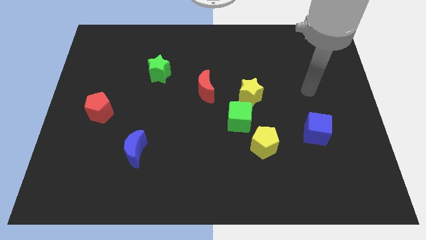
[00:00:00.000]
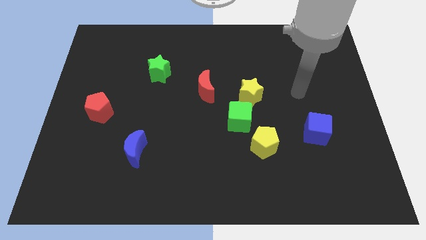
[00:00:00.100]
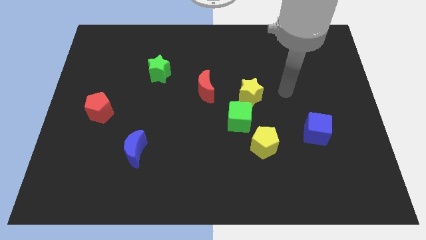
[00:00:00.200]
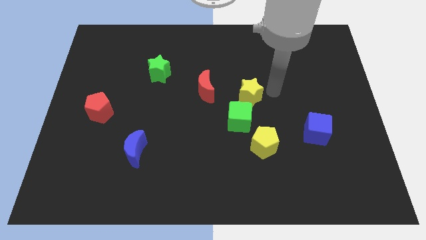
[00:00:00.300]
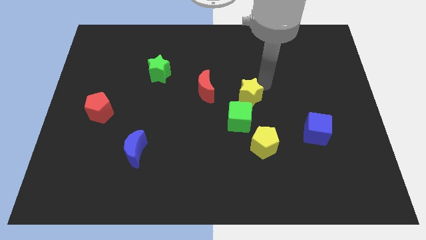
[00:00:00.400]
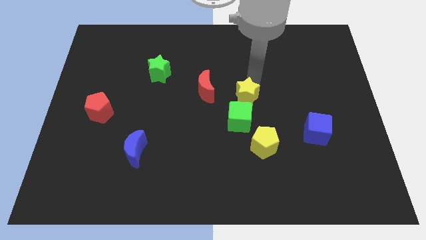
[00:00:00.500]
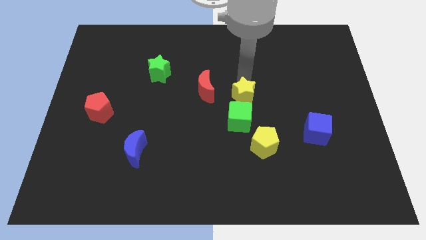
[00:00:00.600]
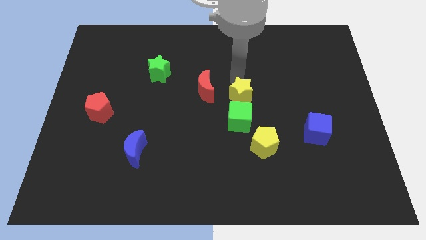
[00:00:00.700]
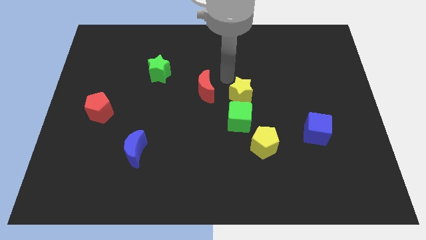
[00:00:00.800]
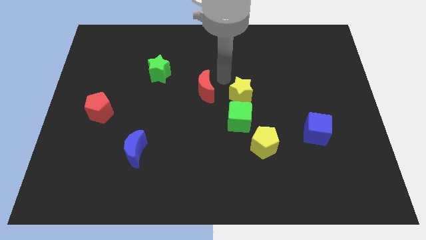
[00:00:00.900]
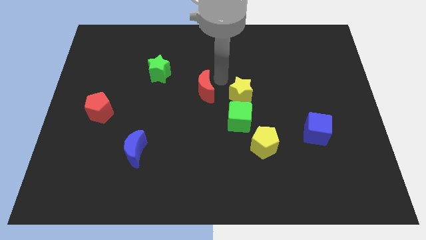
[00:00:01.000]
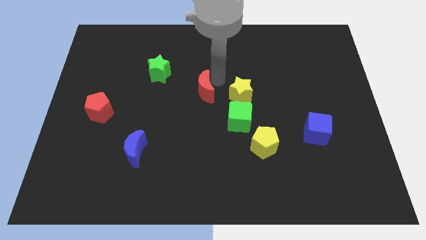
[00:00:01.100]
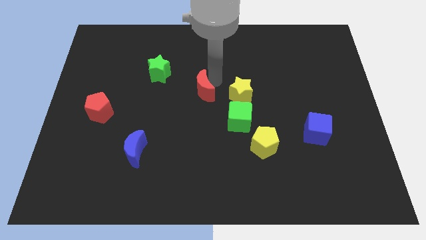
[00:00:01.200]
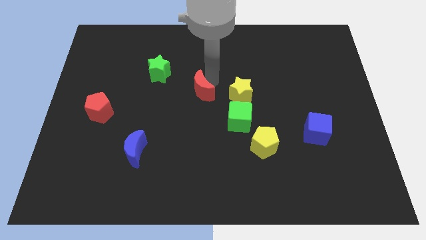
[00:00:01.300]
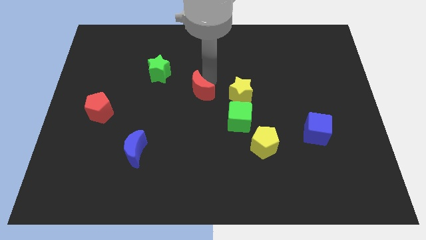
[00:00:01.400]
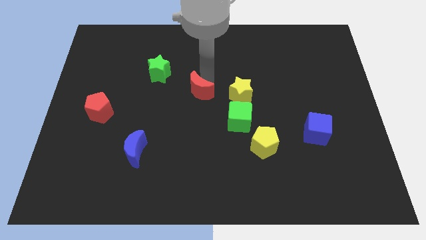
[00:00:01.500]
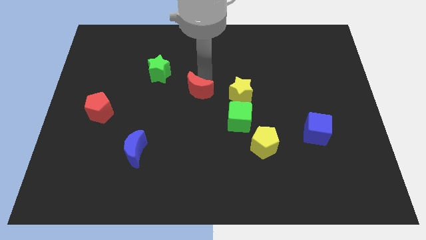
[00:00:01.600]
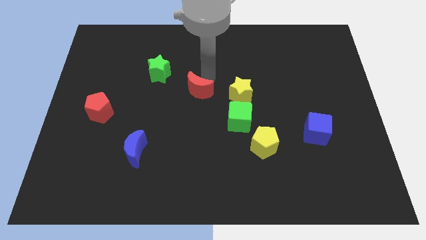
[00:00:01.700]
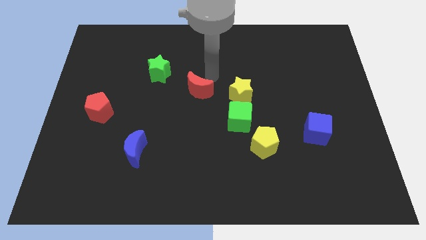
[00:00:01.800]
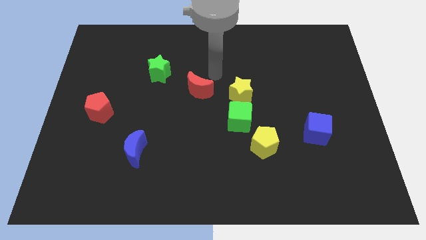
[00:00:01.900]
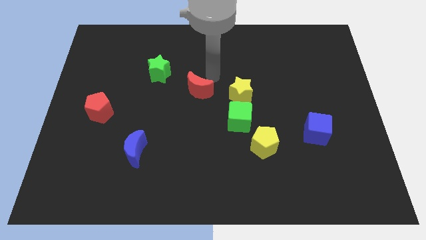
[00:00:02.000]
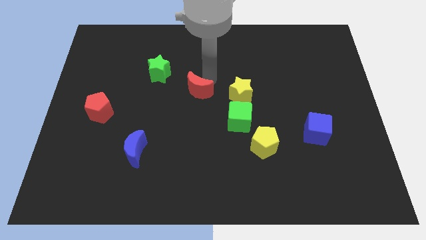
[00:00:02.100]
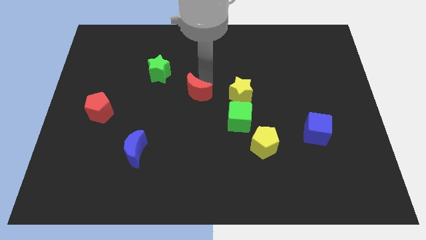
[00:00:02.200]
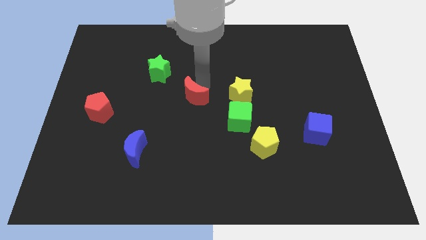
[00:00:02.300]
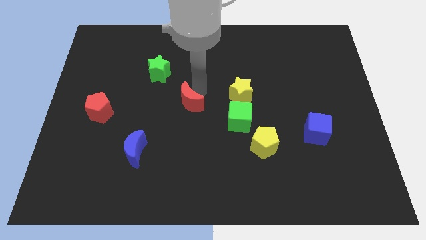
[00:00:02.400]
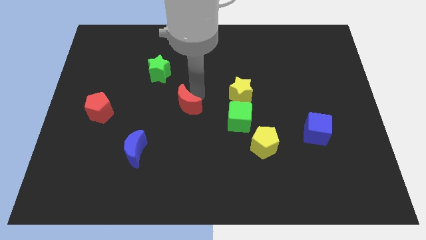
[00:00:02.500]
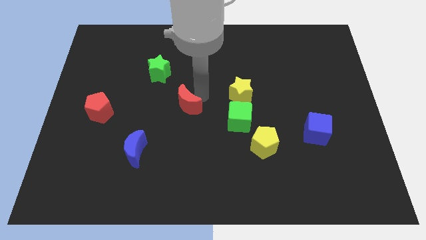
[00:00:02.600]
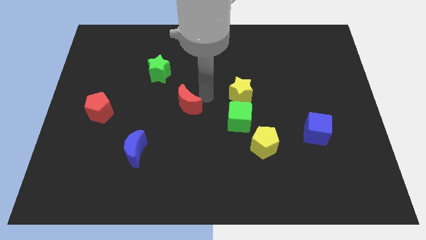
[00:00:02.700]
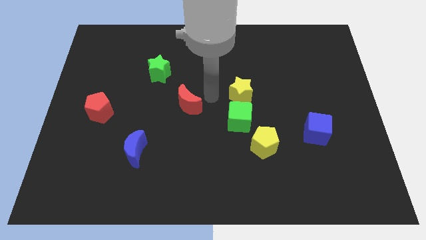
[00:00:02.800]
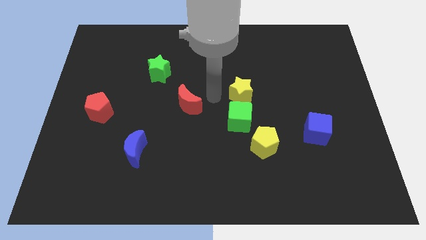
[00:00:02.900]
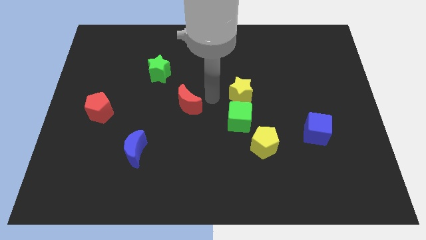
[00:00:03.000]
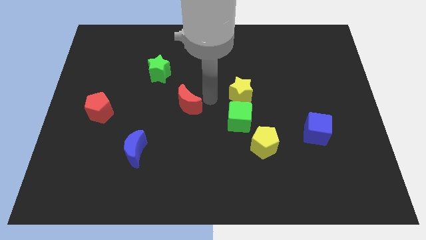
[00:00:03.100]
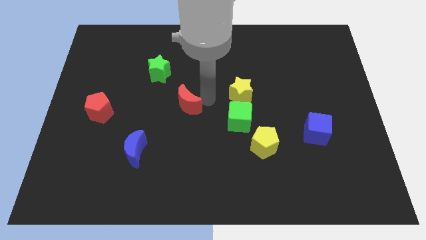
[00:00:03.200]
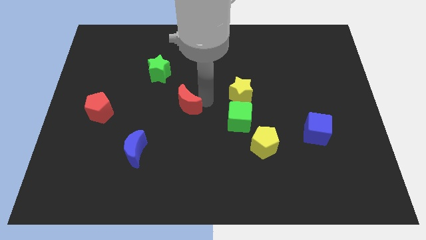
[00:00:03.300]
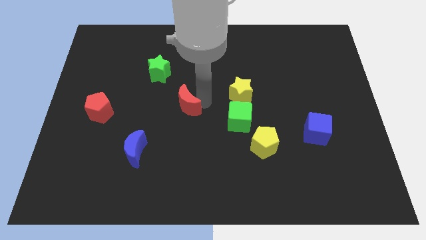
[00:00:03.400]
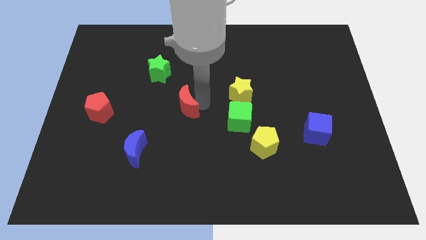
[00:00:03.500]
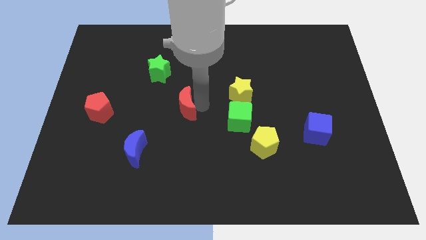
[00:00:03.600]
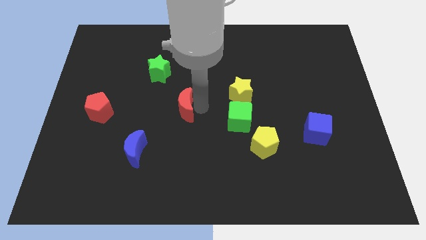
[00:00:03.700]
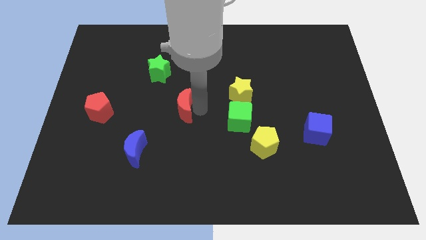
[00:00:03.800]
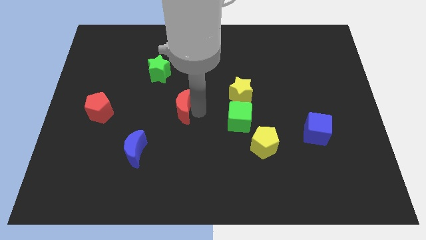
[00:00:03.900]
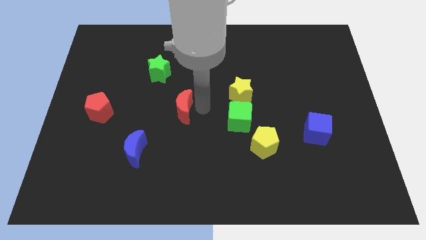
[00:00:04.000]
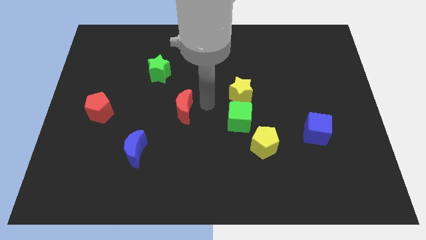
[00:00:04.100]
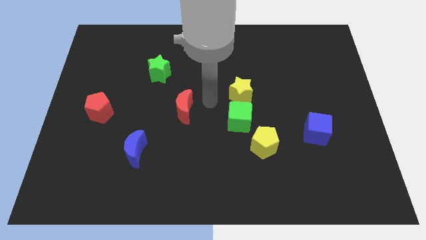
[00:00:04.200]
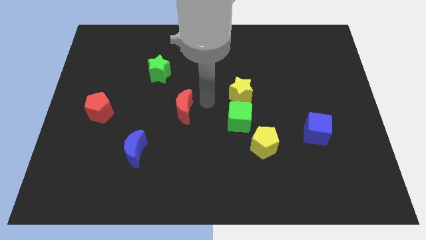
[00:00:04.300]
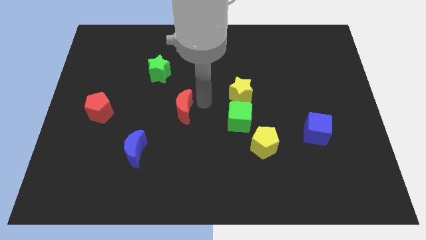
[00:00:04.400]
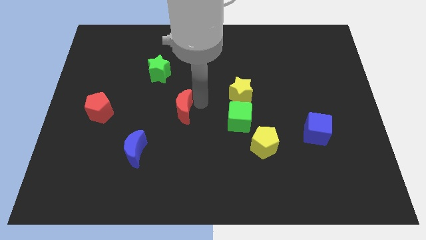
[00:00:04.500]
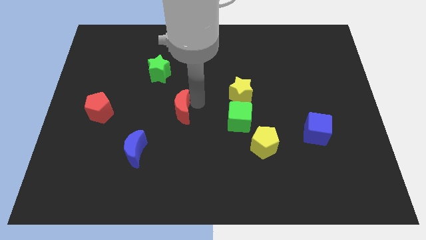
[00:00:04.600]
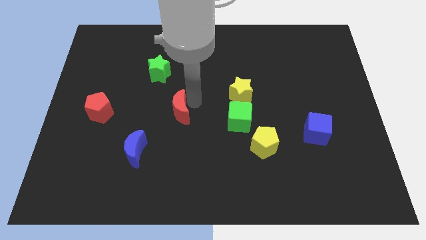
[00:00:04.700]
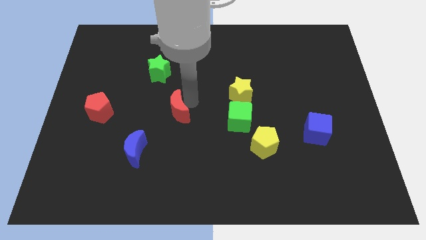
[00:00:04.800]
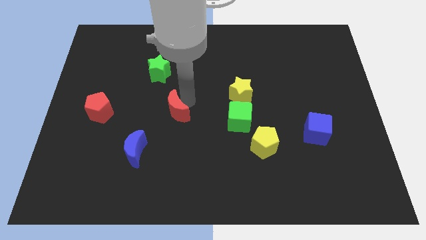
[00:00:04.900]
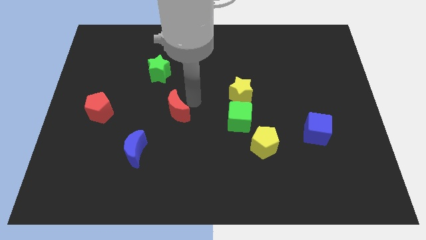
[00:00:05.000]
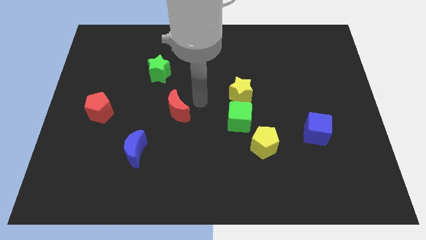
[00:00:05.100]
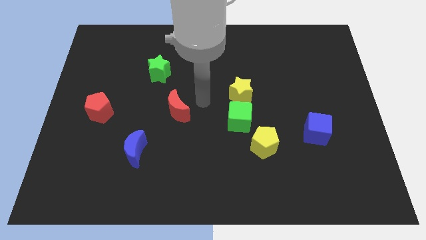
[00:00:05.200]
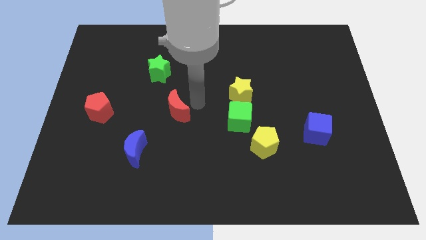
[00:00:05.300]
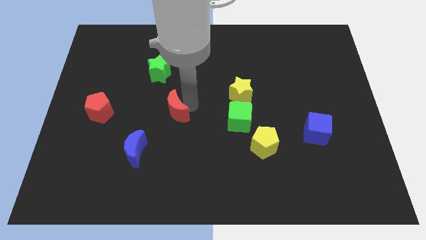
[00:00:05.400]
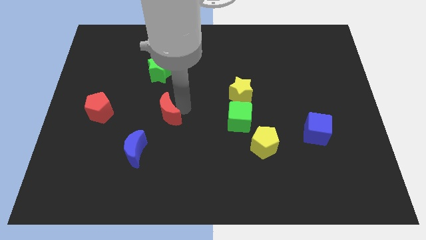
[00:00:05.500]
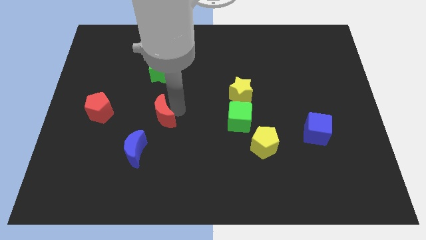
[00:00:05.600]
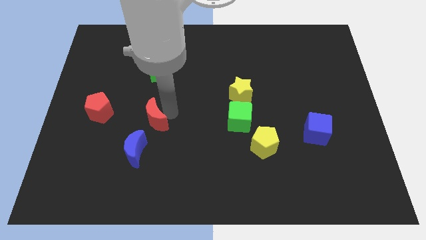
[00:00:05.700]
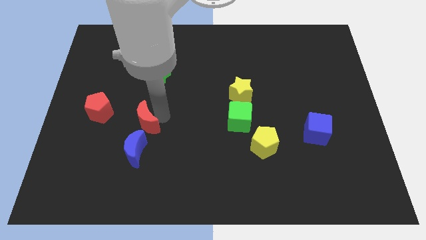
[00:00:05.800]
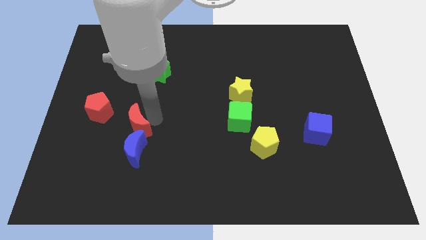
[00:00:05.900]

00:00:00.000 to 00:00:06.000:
move the red moon diagonally up and to the left of the blue moon

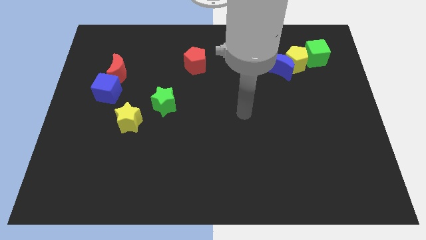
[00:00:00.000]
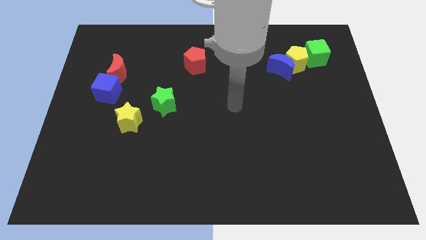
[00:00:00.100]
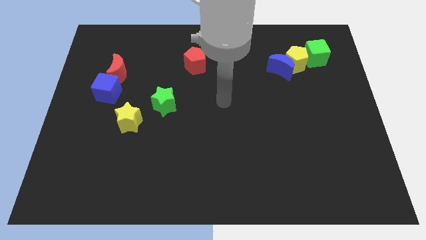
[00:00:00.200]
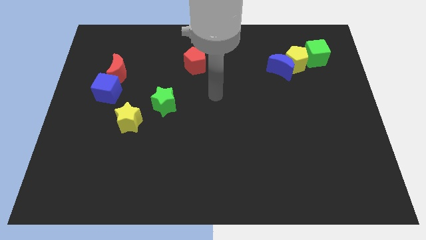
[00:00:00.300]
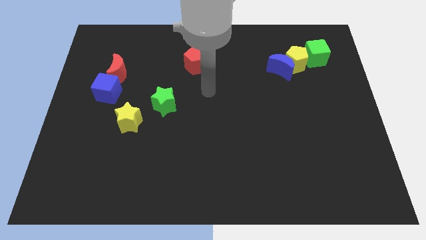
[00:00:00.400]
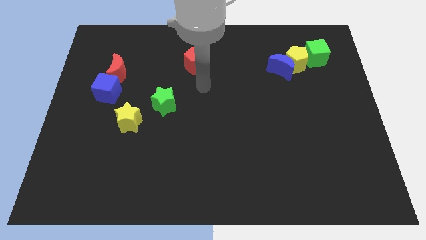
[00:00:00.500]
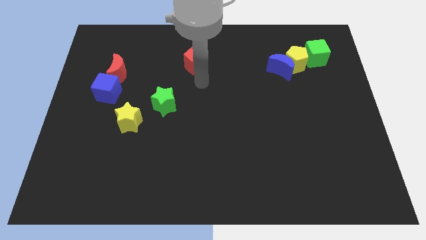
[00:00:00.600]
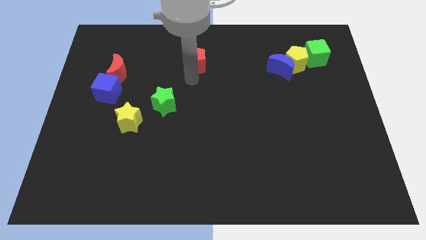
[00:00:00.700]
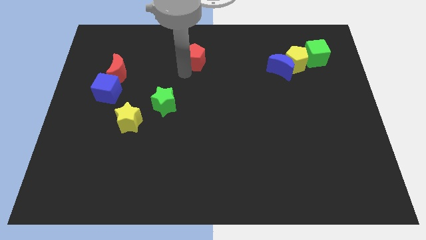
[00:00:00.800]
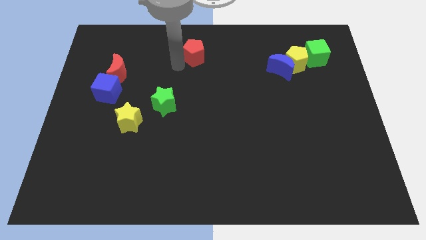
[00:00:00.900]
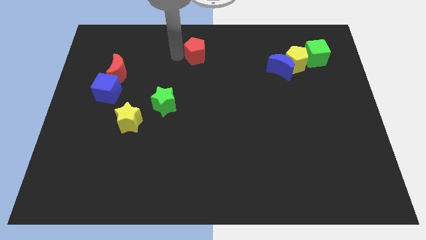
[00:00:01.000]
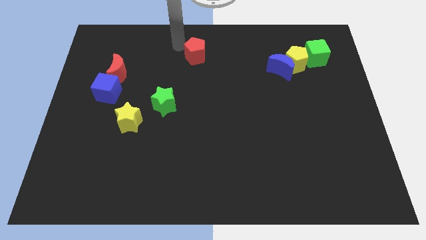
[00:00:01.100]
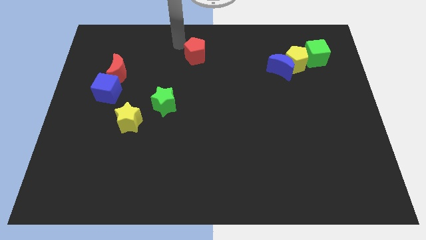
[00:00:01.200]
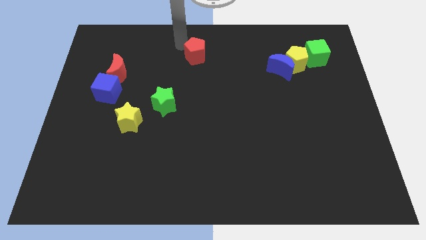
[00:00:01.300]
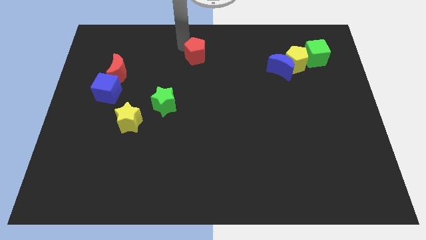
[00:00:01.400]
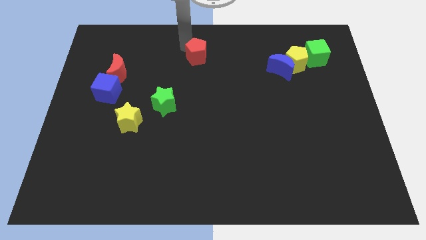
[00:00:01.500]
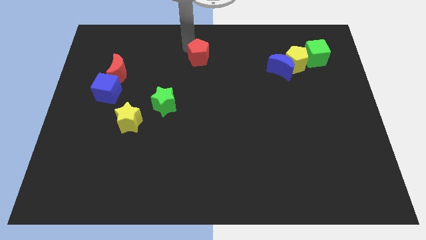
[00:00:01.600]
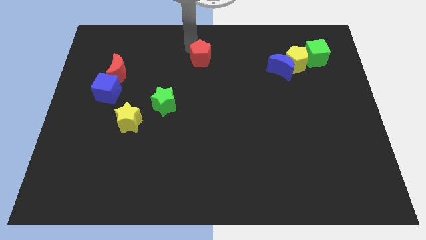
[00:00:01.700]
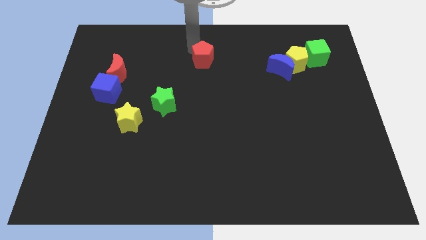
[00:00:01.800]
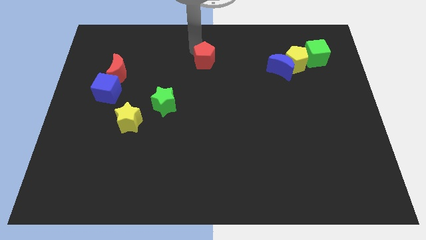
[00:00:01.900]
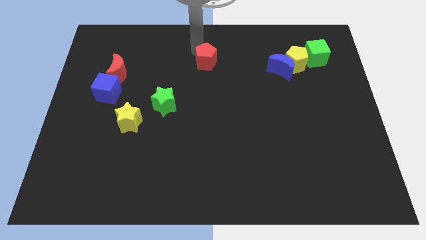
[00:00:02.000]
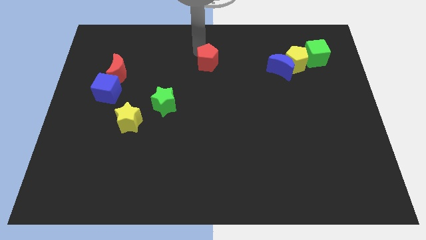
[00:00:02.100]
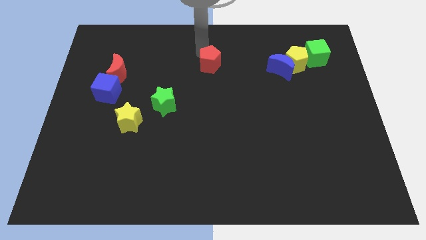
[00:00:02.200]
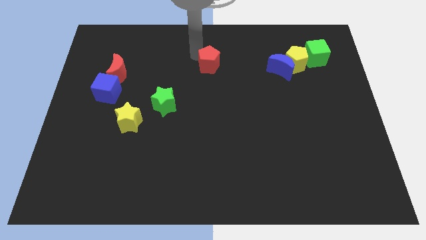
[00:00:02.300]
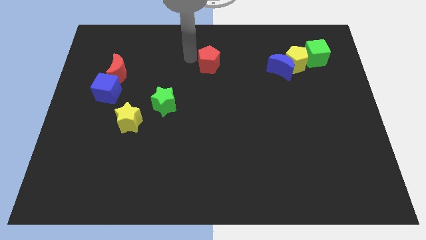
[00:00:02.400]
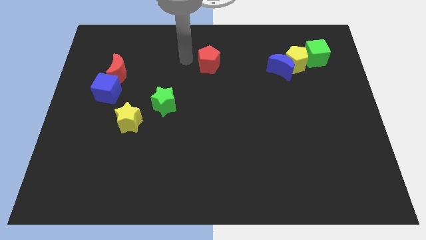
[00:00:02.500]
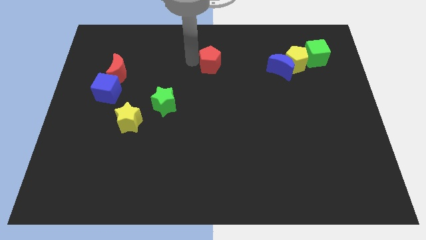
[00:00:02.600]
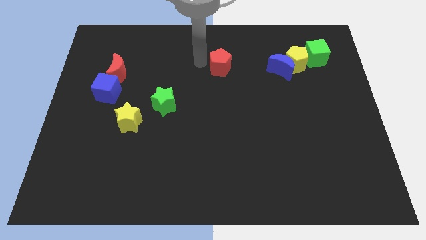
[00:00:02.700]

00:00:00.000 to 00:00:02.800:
put the red pentagon left of the blue moon
